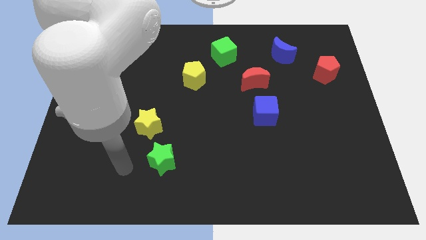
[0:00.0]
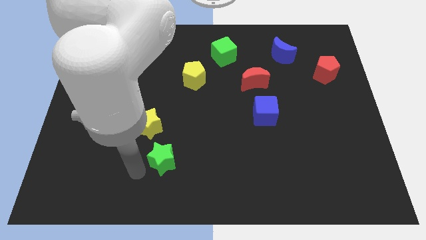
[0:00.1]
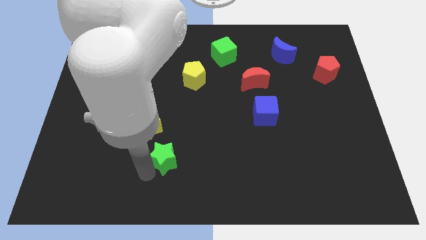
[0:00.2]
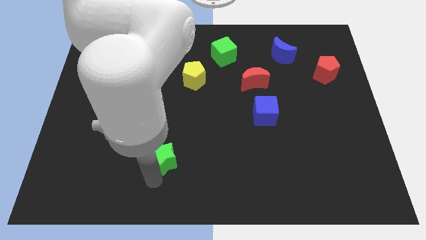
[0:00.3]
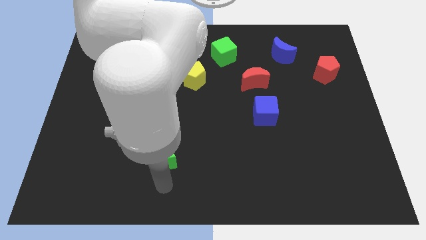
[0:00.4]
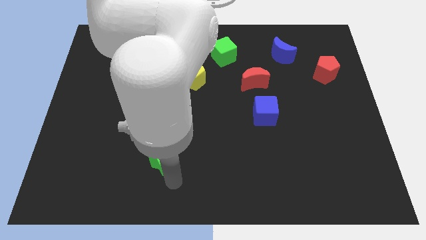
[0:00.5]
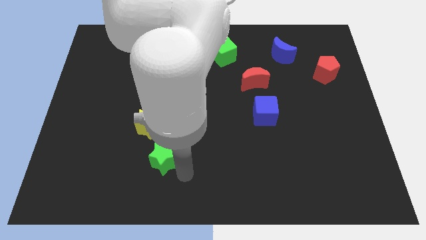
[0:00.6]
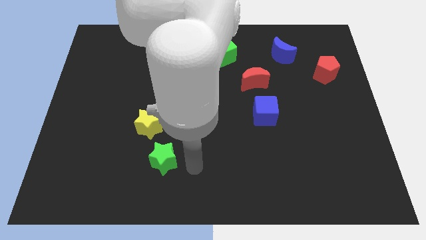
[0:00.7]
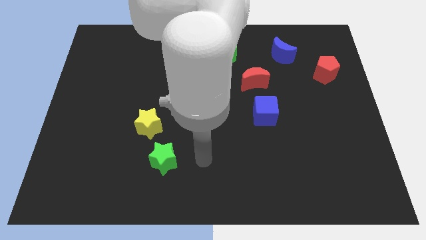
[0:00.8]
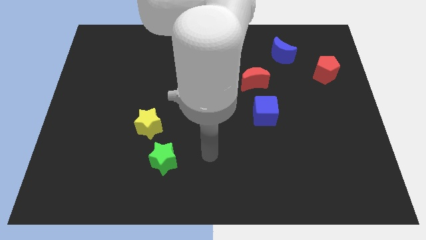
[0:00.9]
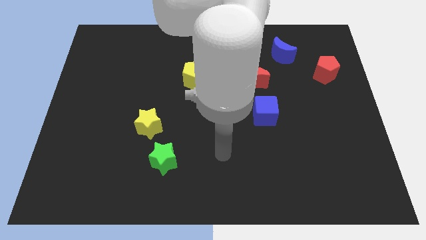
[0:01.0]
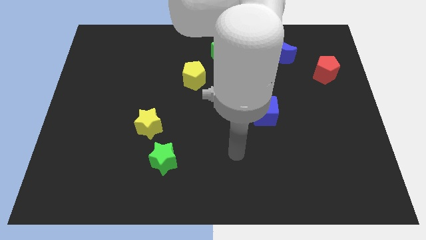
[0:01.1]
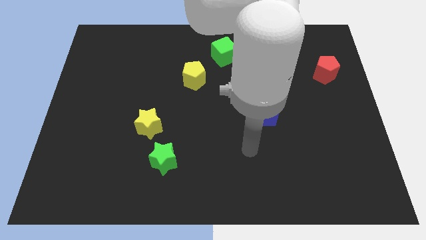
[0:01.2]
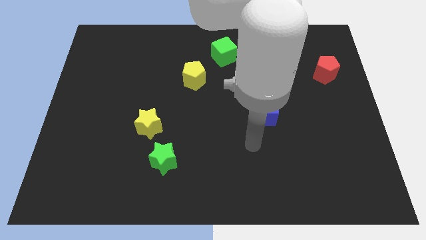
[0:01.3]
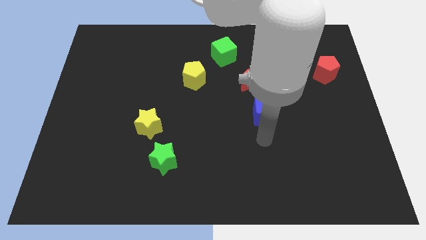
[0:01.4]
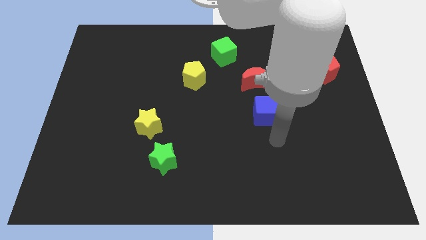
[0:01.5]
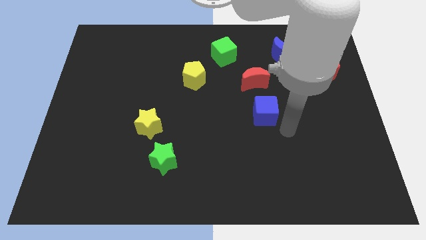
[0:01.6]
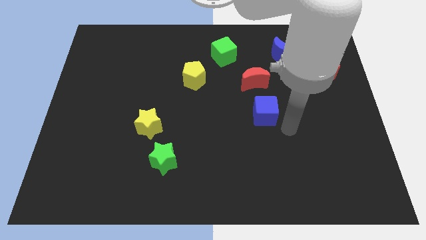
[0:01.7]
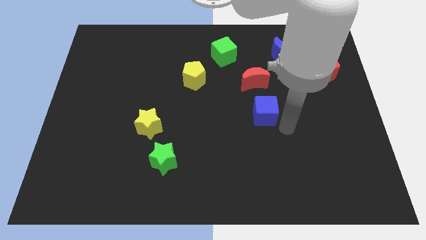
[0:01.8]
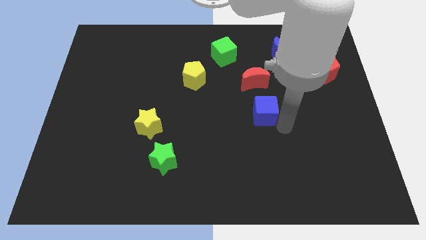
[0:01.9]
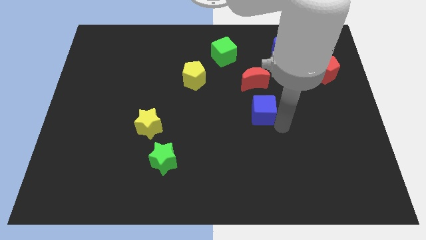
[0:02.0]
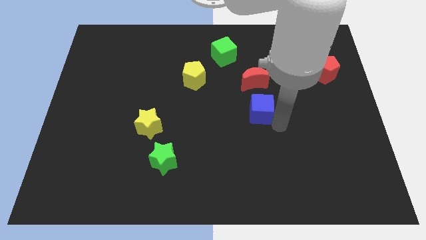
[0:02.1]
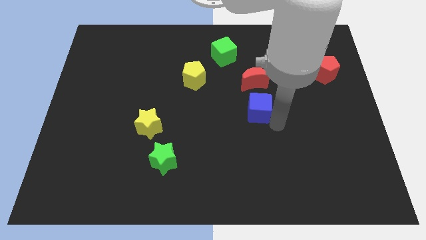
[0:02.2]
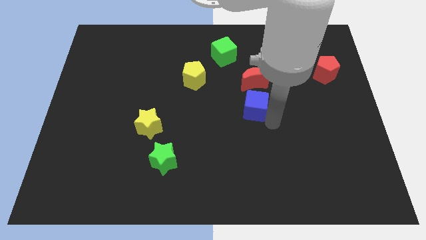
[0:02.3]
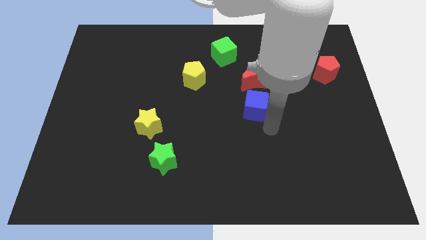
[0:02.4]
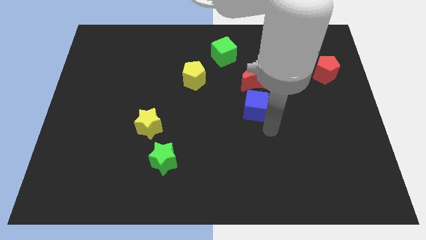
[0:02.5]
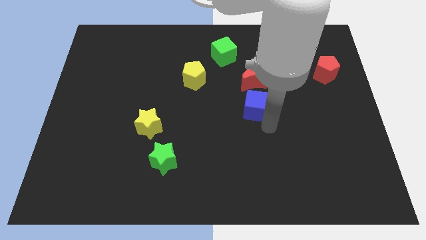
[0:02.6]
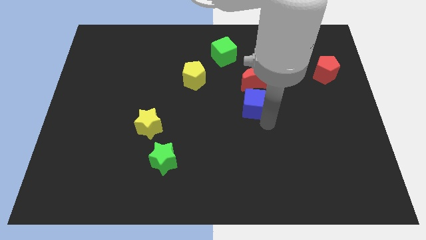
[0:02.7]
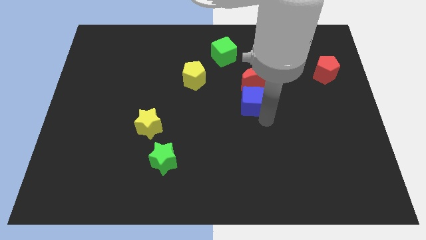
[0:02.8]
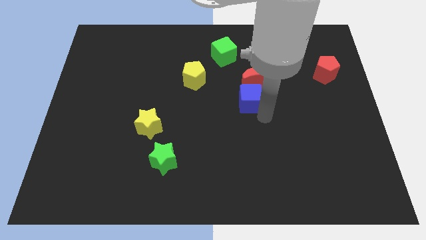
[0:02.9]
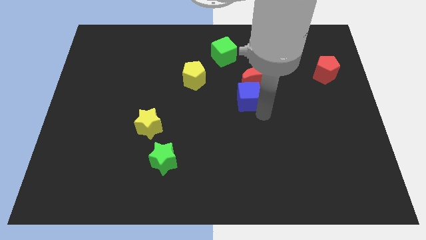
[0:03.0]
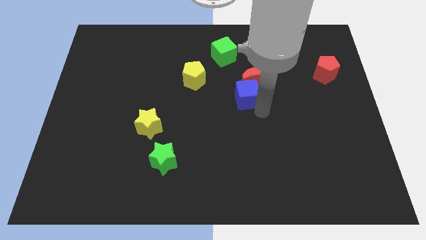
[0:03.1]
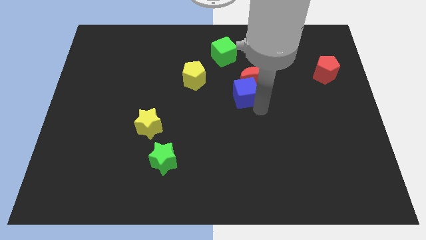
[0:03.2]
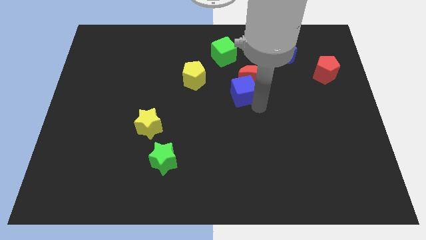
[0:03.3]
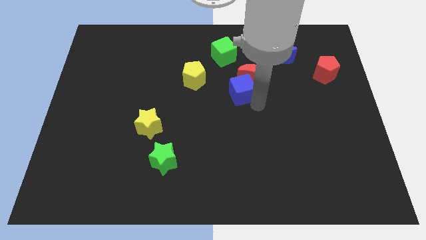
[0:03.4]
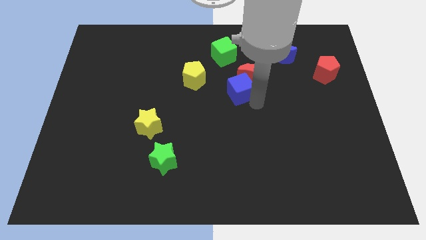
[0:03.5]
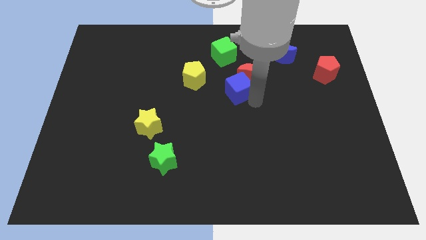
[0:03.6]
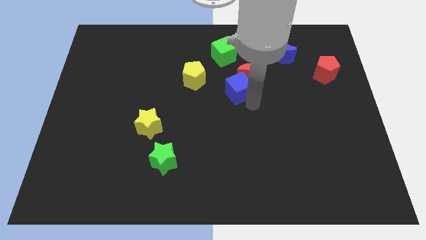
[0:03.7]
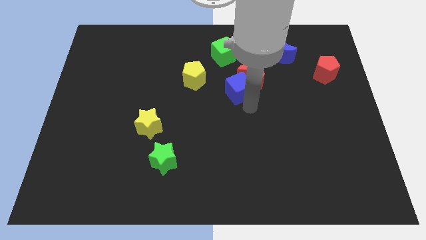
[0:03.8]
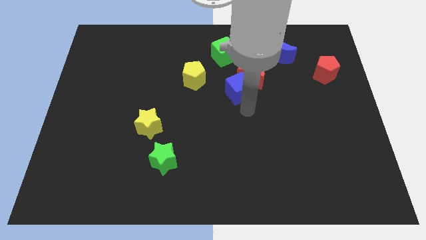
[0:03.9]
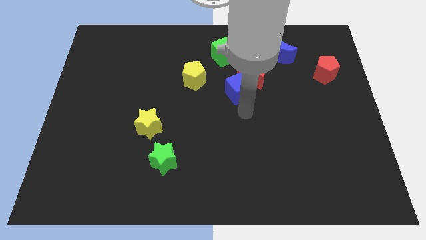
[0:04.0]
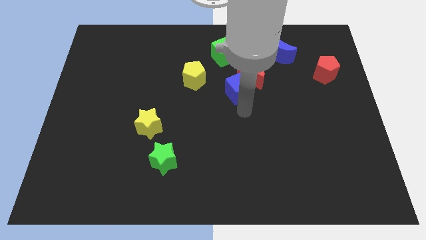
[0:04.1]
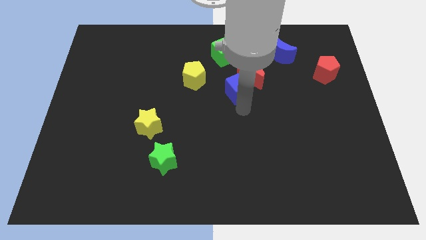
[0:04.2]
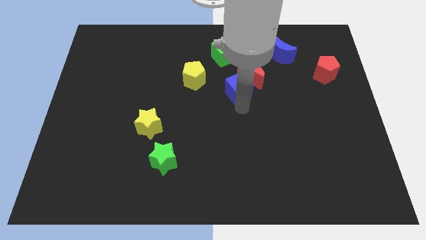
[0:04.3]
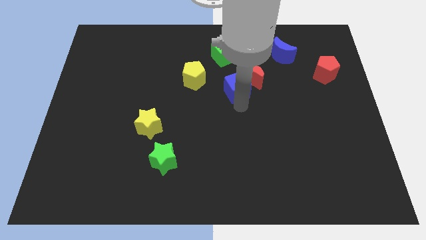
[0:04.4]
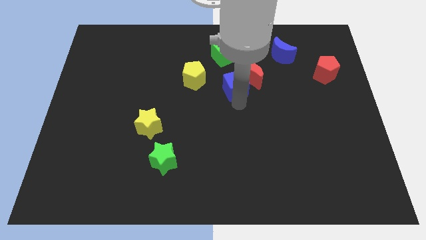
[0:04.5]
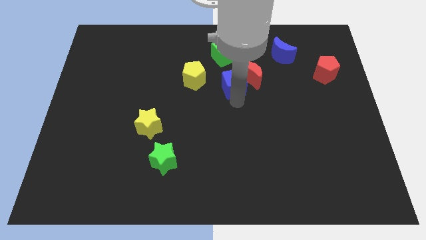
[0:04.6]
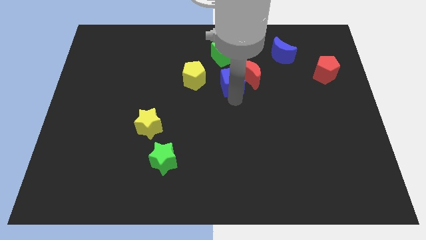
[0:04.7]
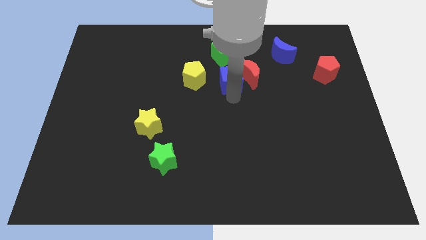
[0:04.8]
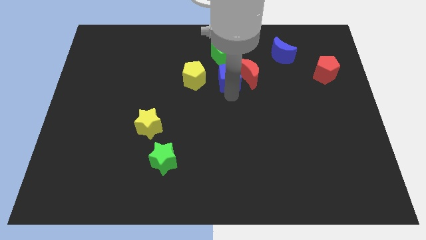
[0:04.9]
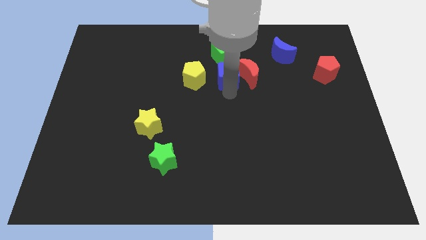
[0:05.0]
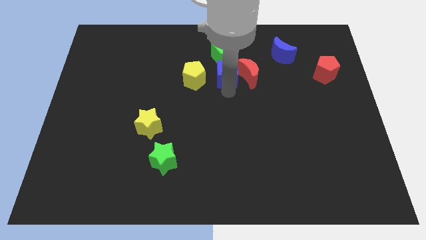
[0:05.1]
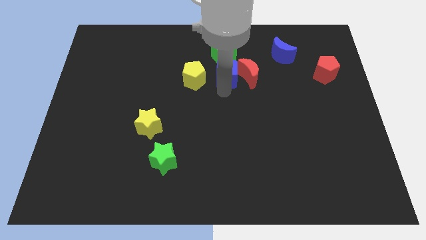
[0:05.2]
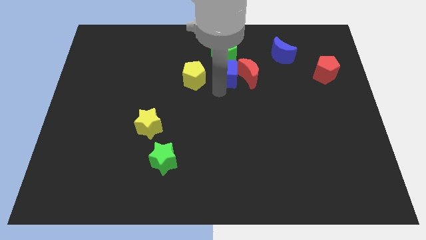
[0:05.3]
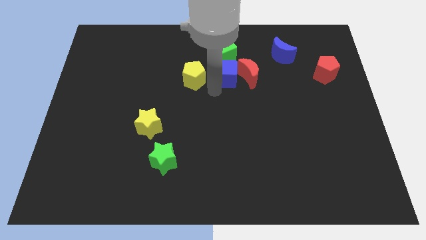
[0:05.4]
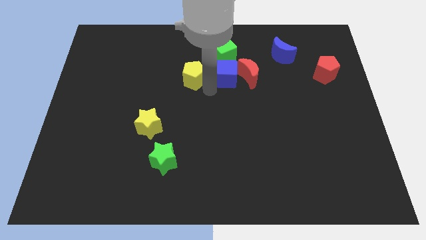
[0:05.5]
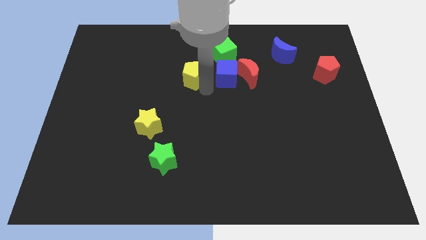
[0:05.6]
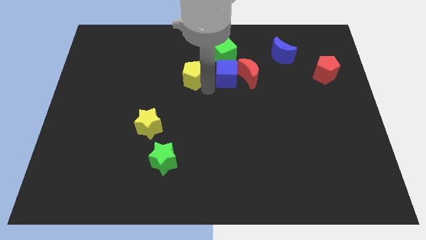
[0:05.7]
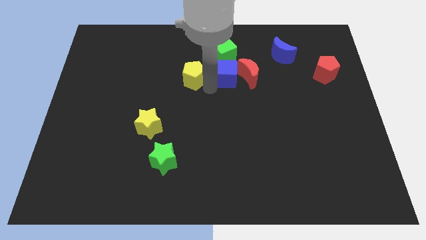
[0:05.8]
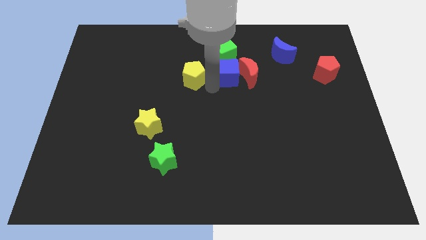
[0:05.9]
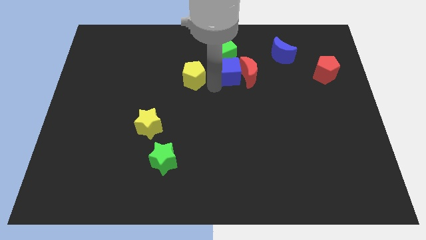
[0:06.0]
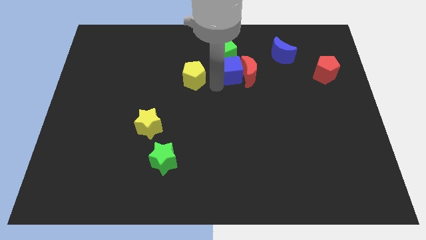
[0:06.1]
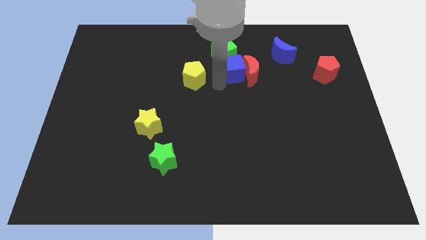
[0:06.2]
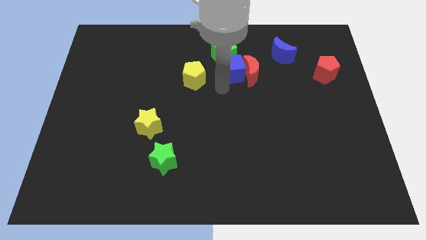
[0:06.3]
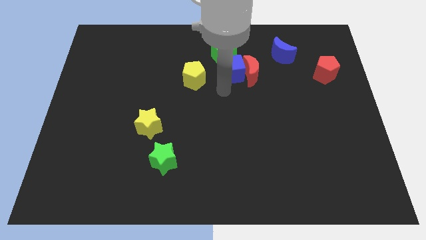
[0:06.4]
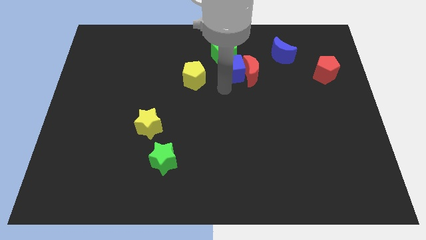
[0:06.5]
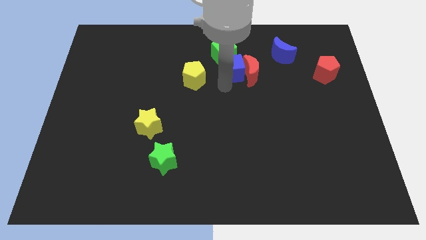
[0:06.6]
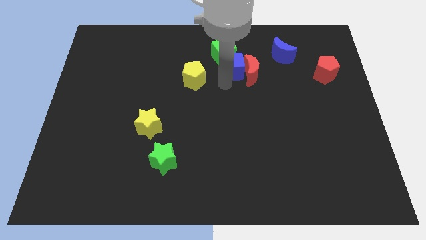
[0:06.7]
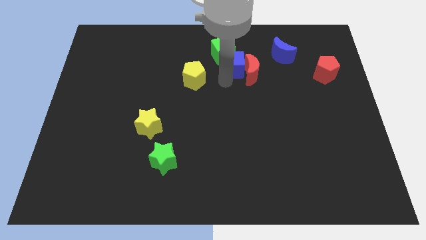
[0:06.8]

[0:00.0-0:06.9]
push the blue cube just left of the blue moon
